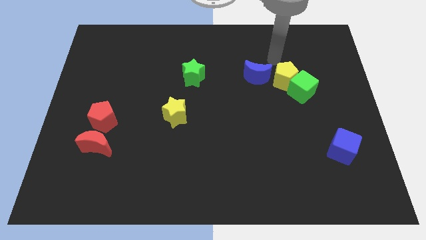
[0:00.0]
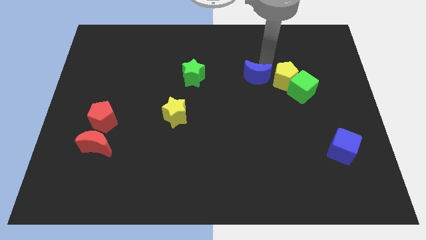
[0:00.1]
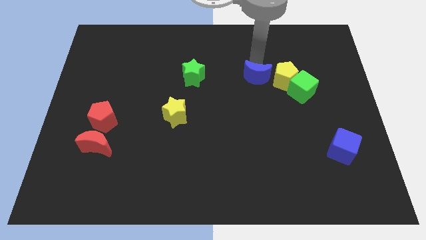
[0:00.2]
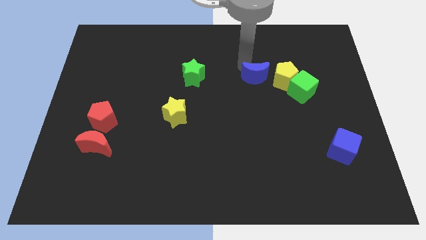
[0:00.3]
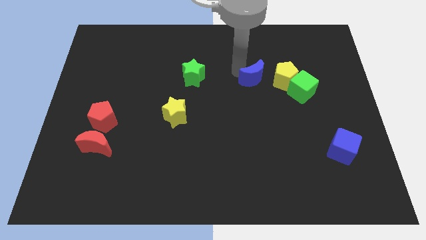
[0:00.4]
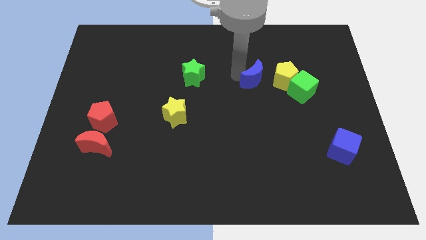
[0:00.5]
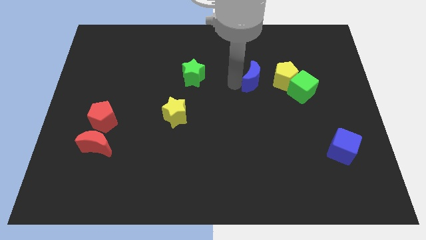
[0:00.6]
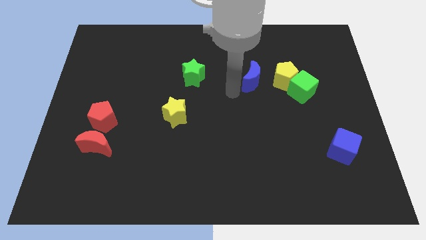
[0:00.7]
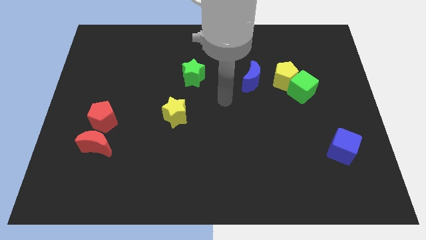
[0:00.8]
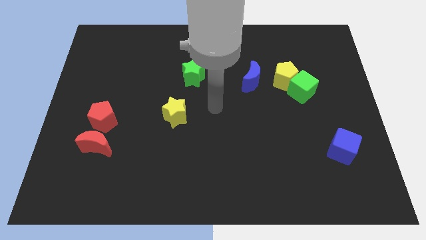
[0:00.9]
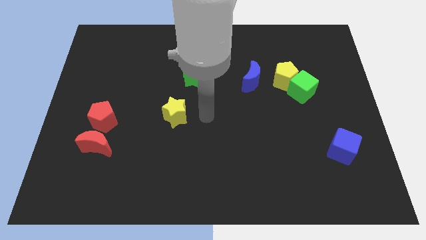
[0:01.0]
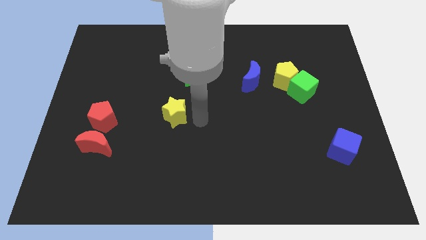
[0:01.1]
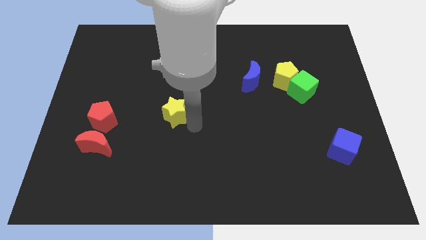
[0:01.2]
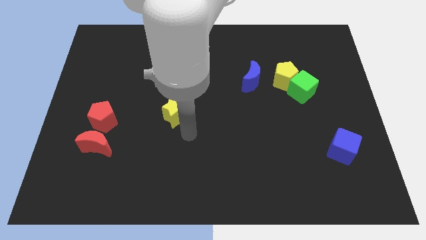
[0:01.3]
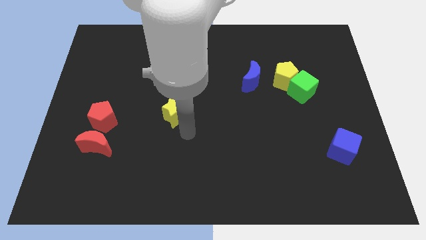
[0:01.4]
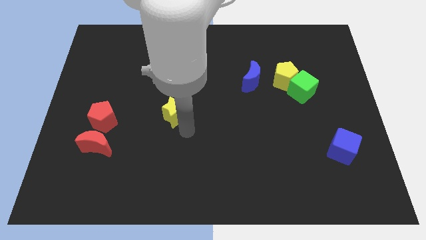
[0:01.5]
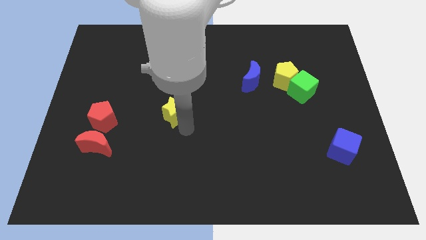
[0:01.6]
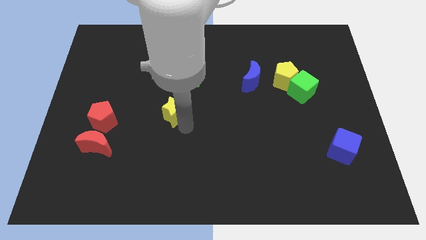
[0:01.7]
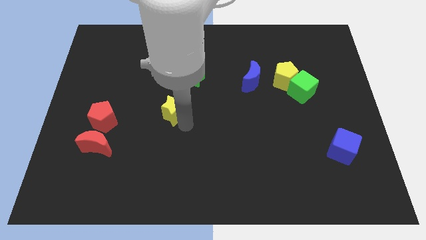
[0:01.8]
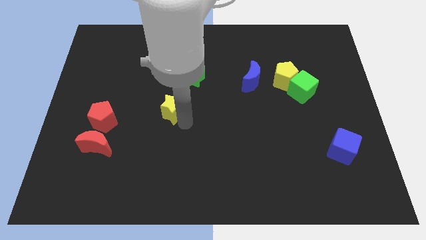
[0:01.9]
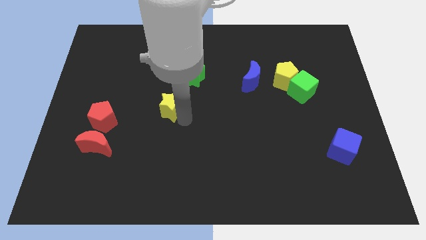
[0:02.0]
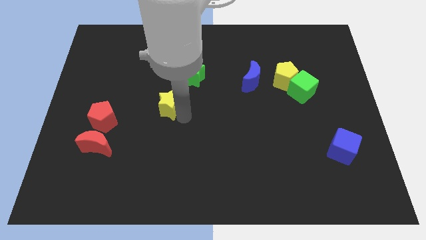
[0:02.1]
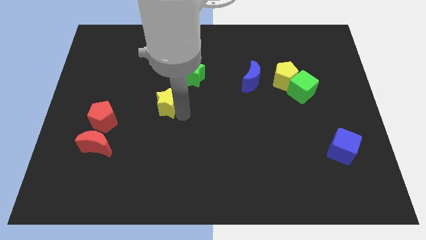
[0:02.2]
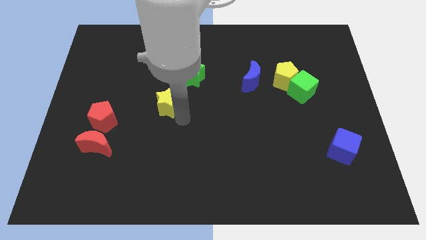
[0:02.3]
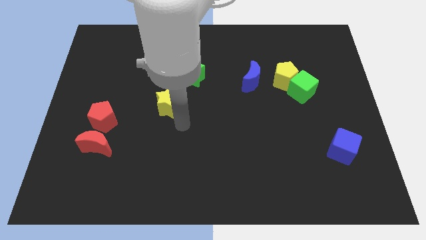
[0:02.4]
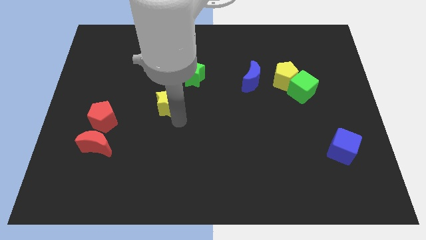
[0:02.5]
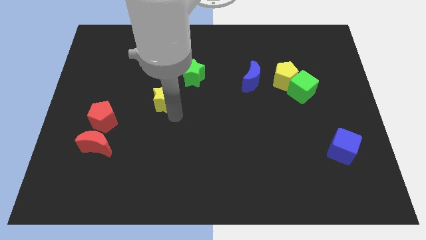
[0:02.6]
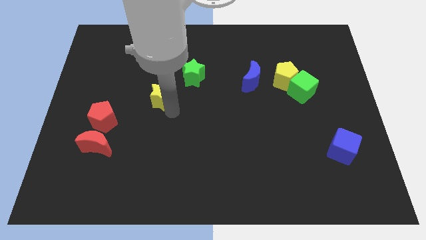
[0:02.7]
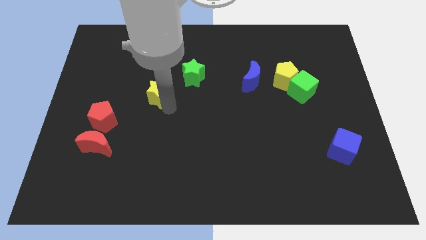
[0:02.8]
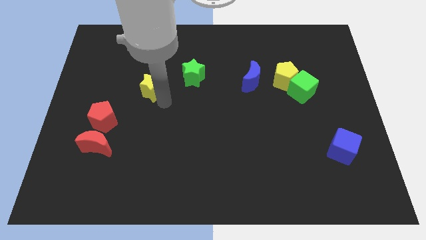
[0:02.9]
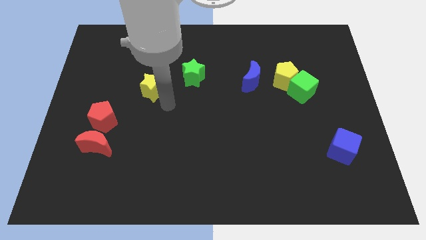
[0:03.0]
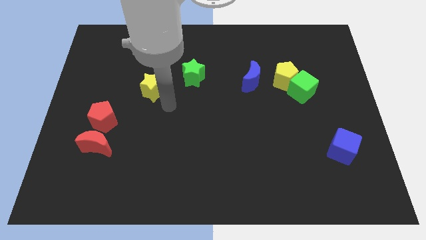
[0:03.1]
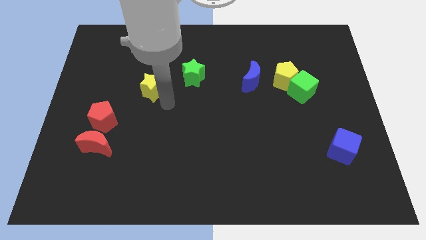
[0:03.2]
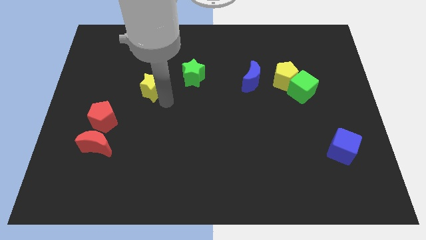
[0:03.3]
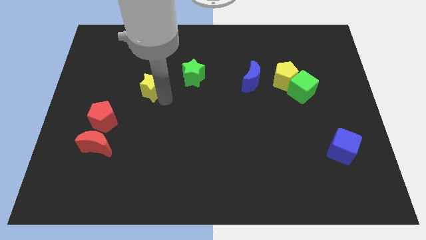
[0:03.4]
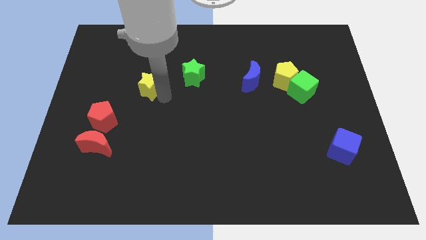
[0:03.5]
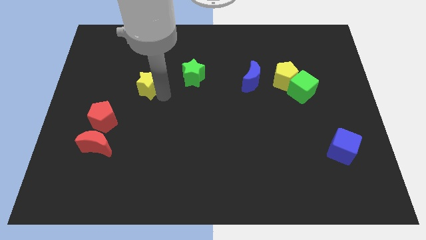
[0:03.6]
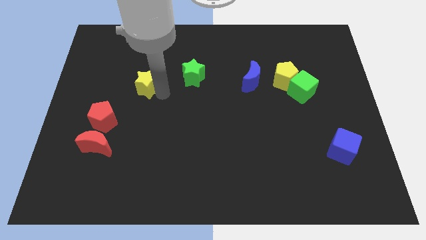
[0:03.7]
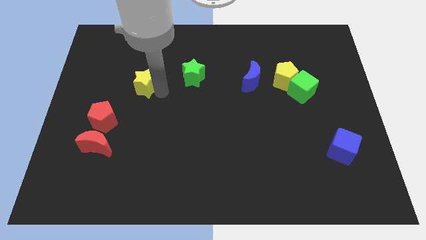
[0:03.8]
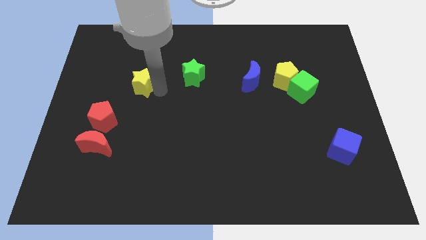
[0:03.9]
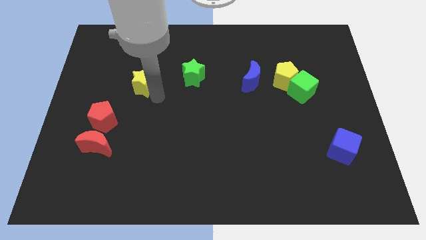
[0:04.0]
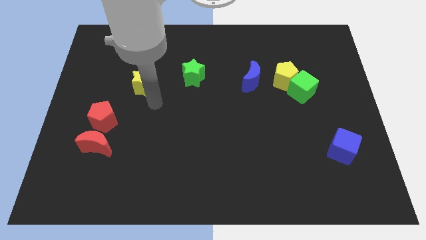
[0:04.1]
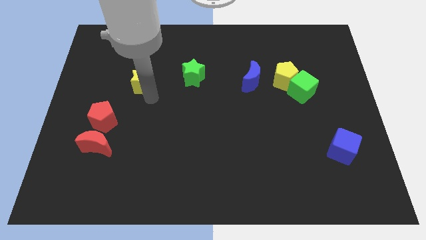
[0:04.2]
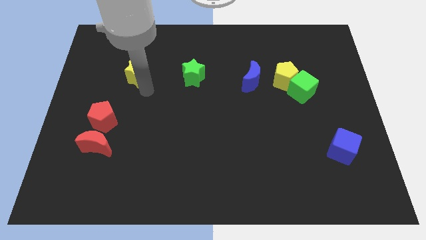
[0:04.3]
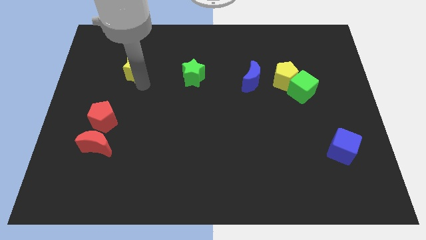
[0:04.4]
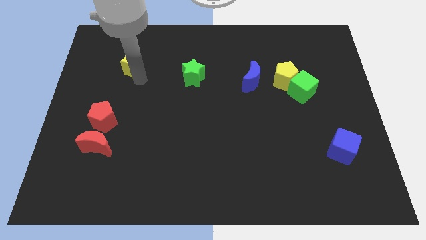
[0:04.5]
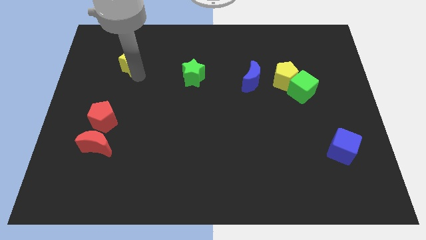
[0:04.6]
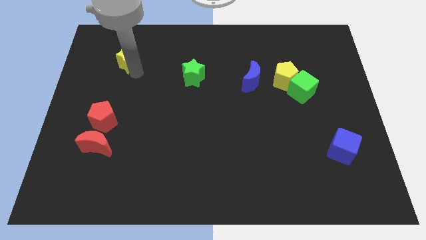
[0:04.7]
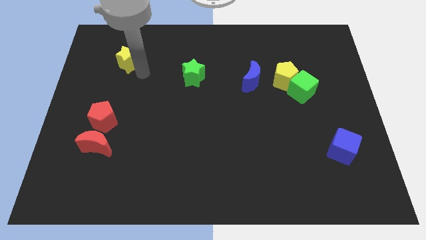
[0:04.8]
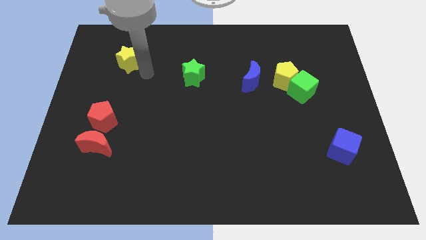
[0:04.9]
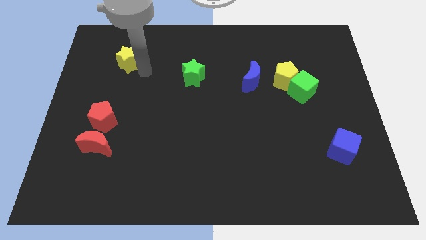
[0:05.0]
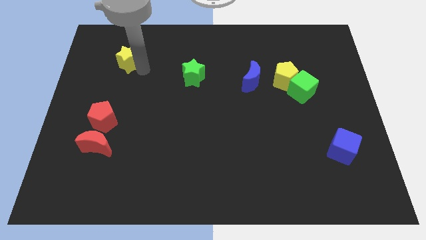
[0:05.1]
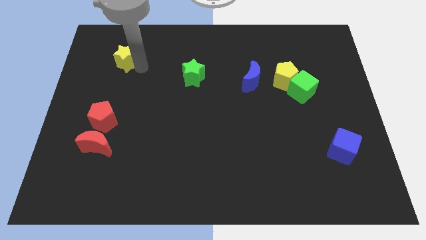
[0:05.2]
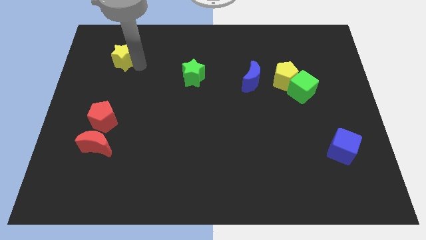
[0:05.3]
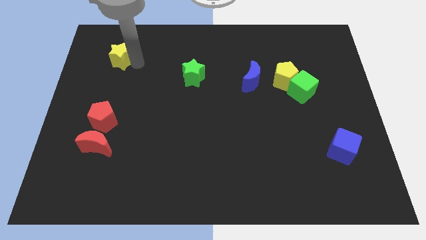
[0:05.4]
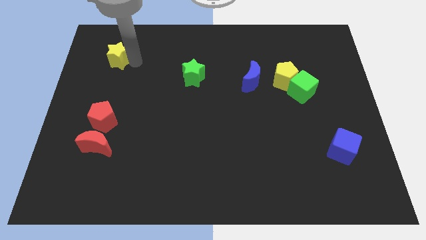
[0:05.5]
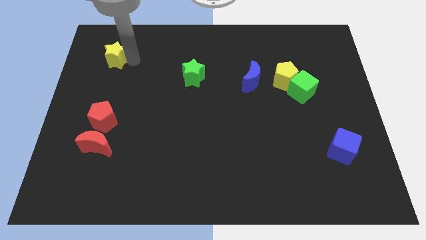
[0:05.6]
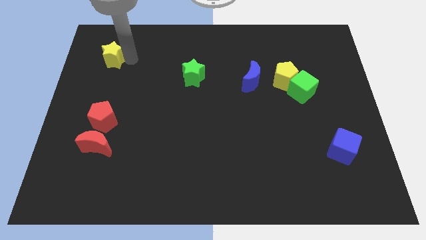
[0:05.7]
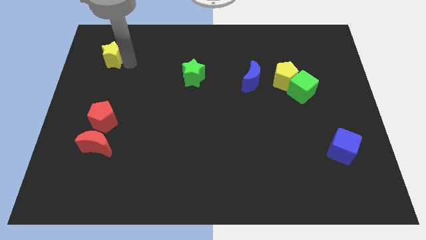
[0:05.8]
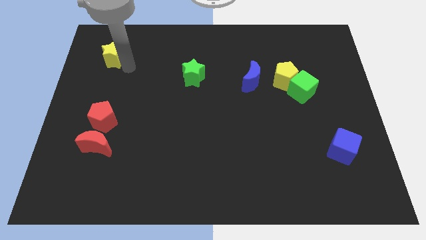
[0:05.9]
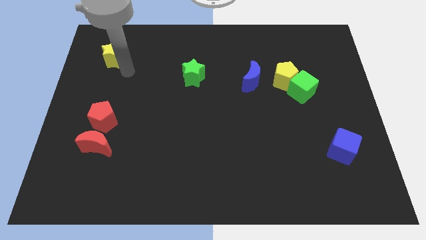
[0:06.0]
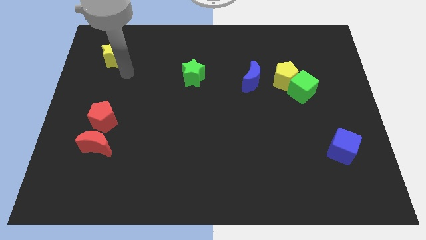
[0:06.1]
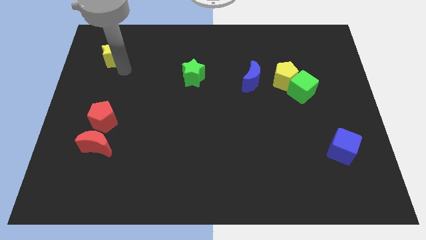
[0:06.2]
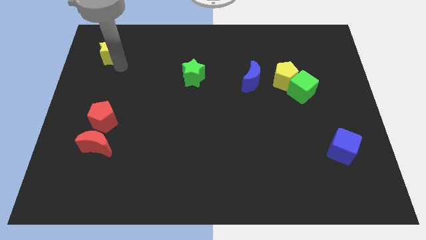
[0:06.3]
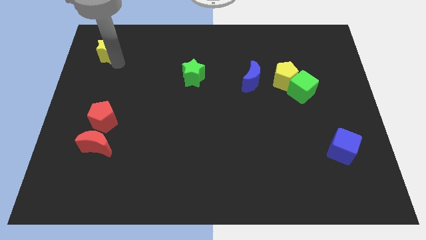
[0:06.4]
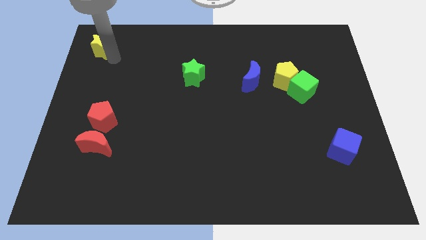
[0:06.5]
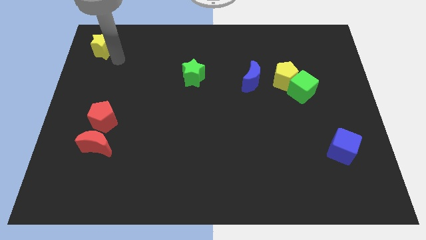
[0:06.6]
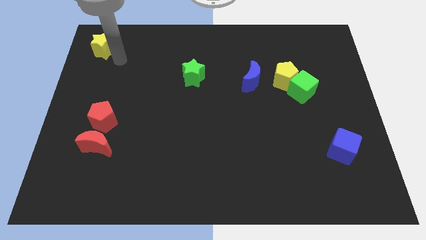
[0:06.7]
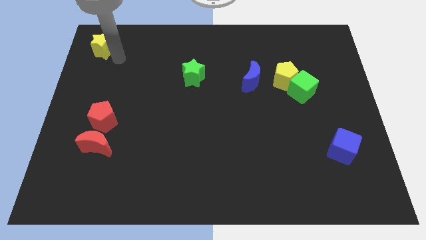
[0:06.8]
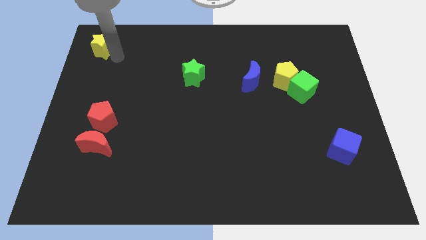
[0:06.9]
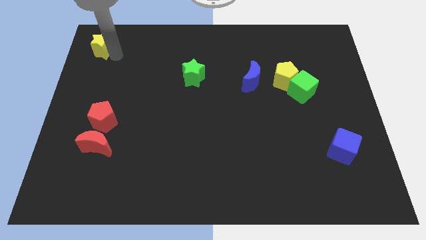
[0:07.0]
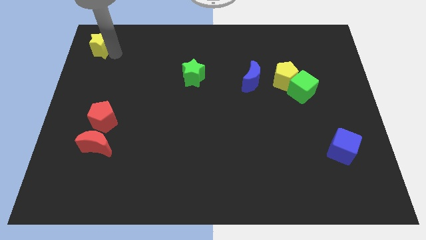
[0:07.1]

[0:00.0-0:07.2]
push the yellow star to the upper left corner

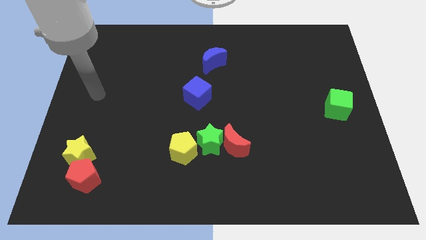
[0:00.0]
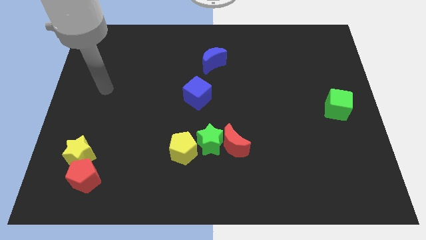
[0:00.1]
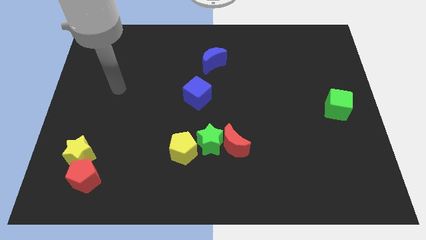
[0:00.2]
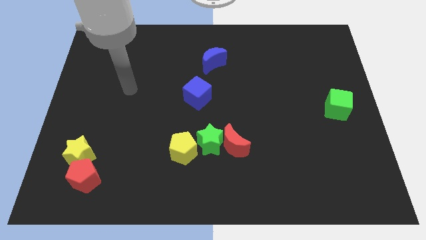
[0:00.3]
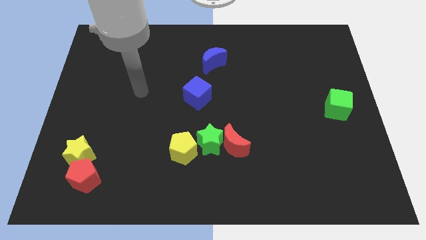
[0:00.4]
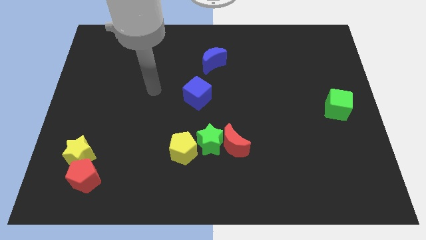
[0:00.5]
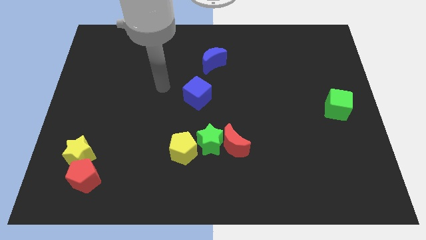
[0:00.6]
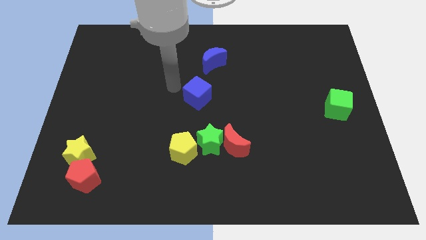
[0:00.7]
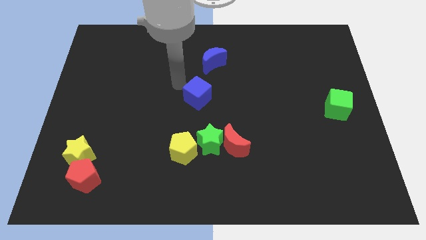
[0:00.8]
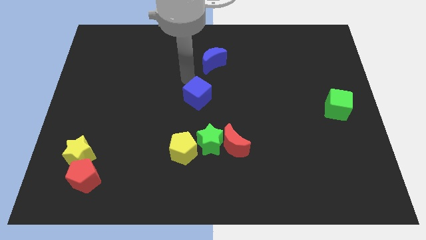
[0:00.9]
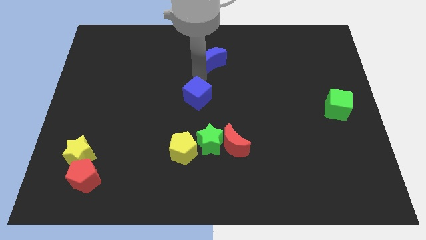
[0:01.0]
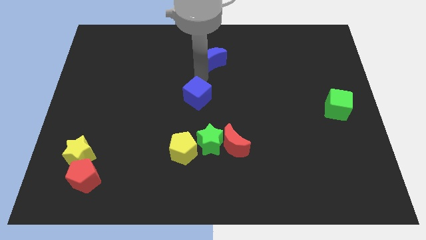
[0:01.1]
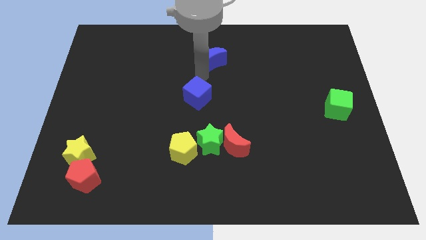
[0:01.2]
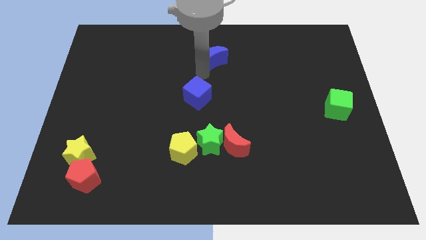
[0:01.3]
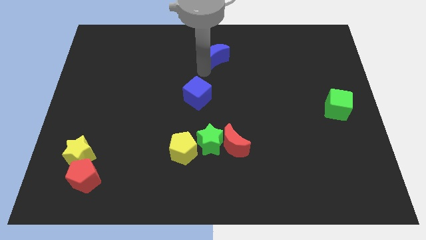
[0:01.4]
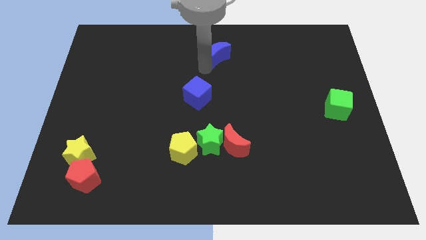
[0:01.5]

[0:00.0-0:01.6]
put the blue moon to the top side
